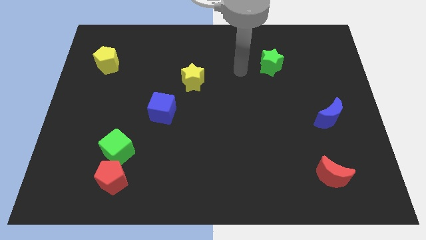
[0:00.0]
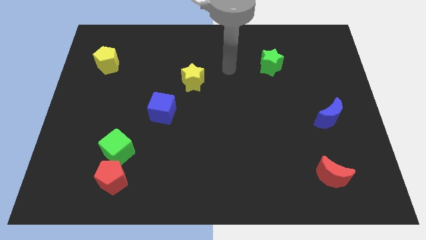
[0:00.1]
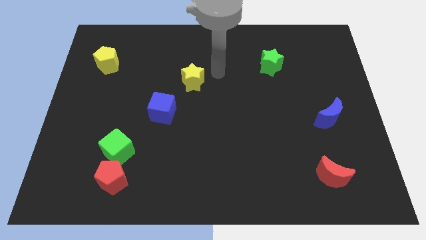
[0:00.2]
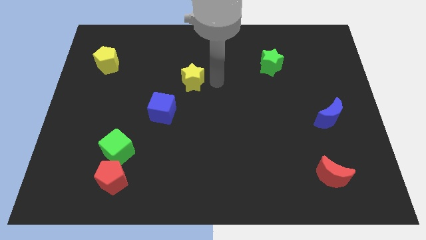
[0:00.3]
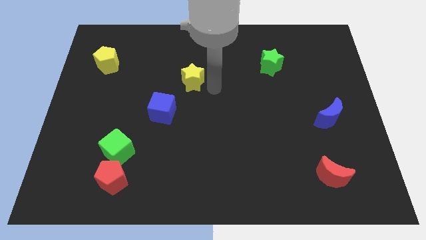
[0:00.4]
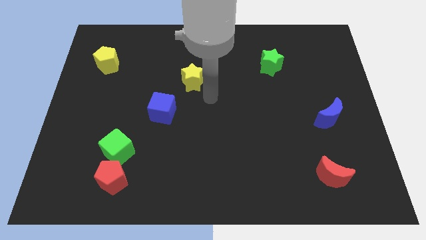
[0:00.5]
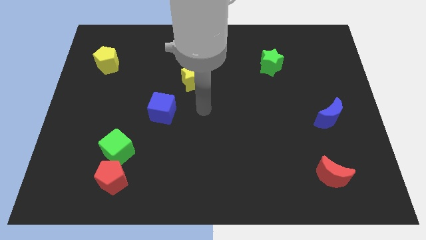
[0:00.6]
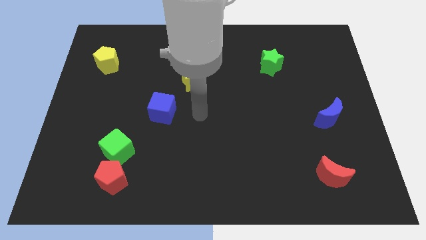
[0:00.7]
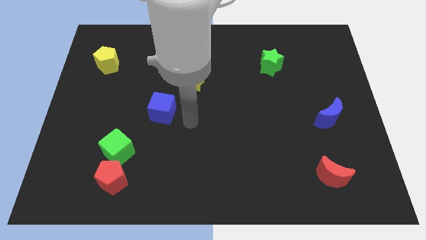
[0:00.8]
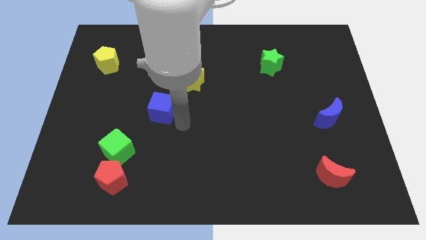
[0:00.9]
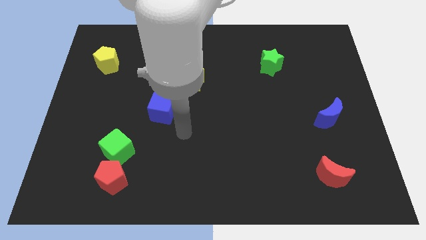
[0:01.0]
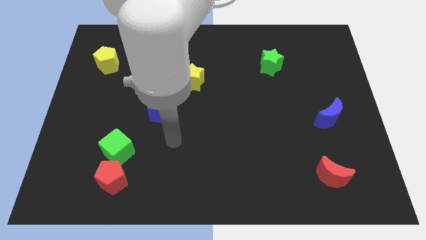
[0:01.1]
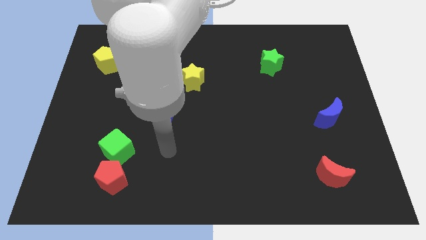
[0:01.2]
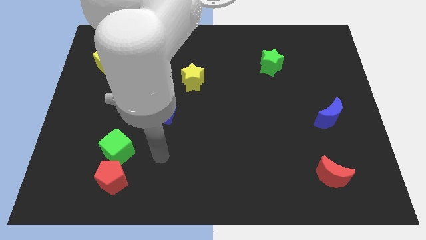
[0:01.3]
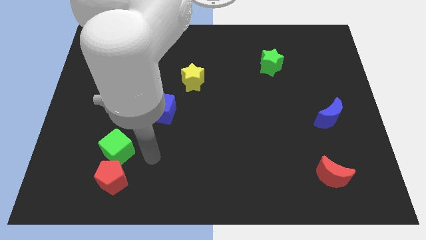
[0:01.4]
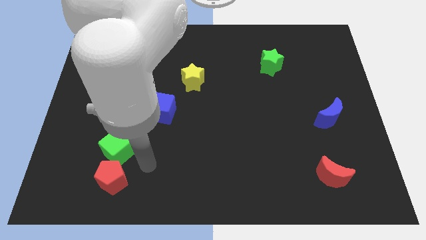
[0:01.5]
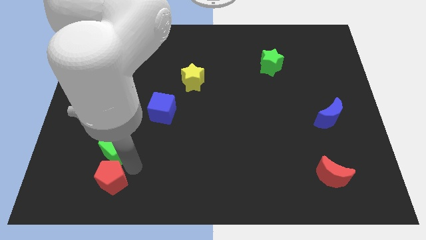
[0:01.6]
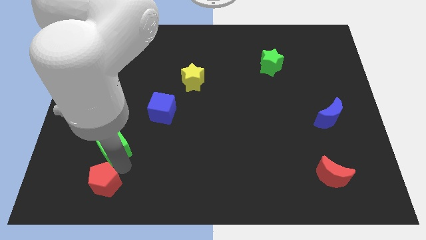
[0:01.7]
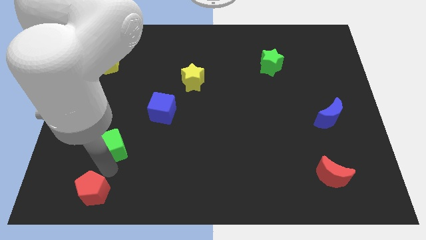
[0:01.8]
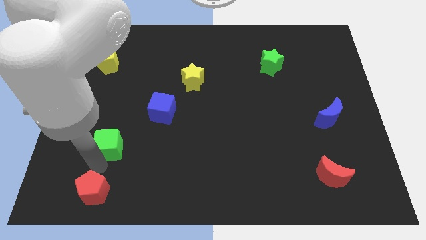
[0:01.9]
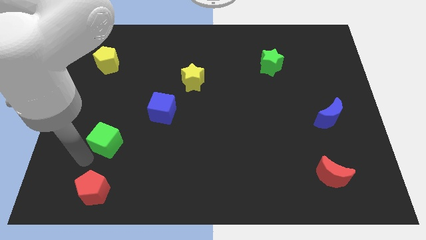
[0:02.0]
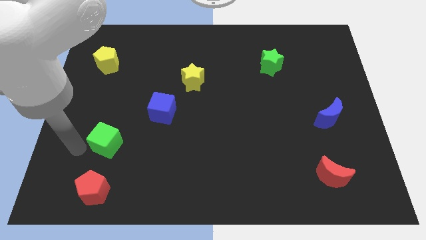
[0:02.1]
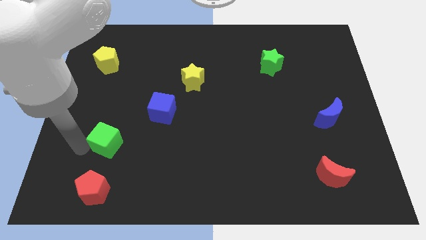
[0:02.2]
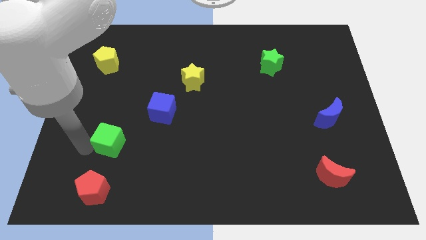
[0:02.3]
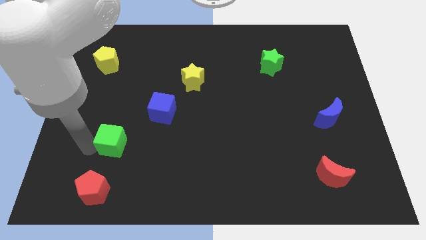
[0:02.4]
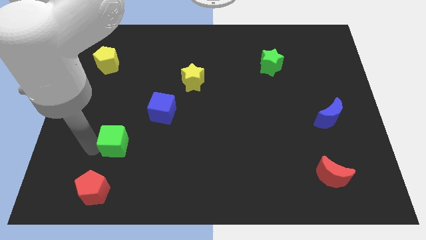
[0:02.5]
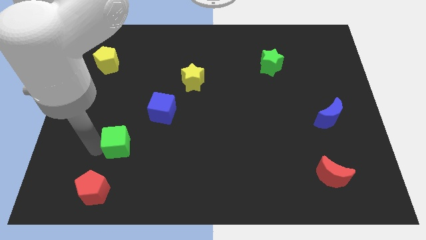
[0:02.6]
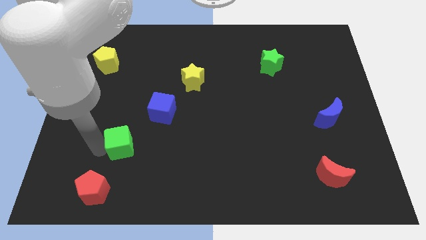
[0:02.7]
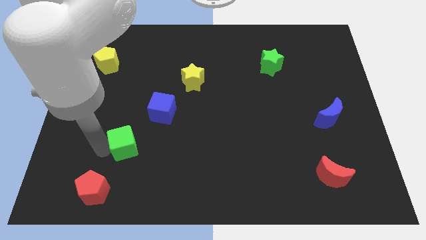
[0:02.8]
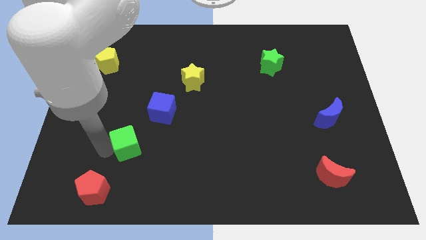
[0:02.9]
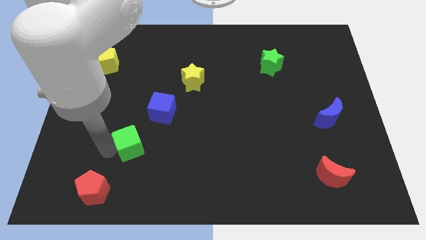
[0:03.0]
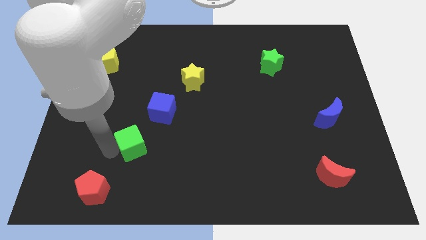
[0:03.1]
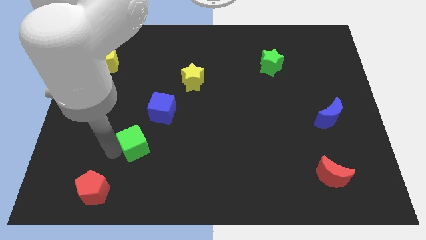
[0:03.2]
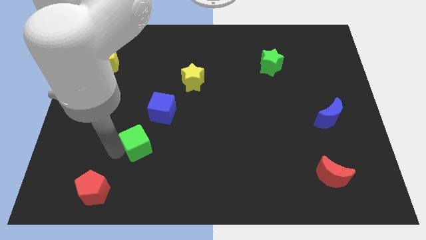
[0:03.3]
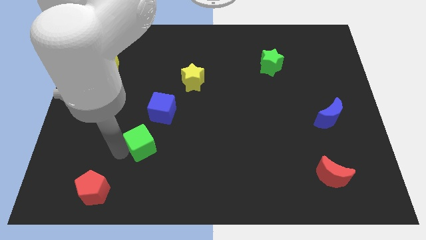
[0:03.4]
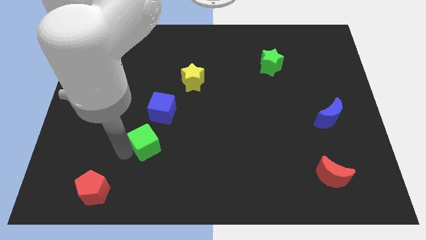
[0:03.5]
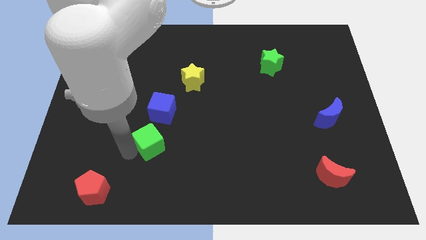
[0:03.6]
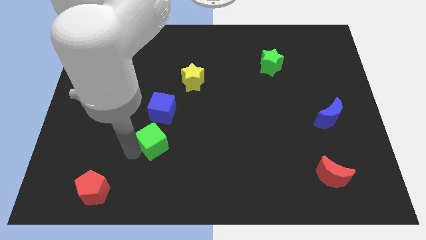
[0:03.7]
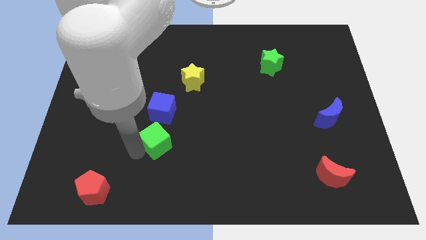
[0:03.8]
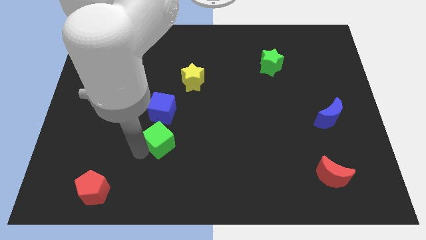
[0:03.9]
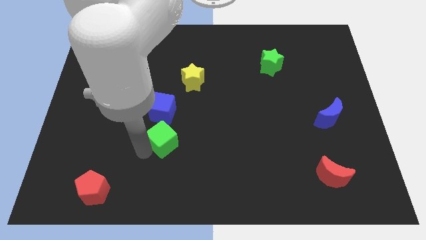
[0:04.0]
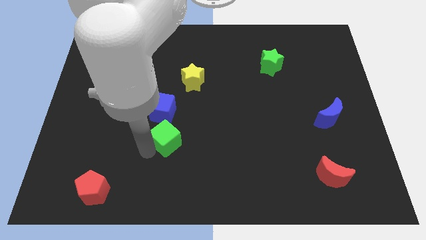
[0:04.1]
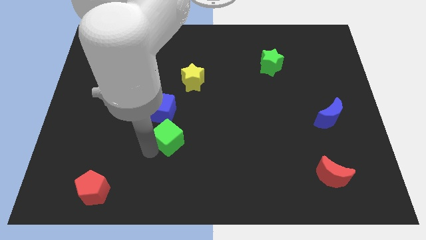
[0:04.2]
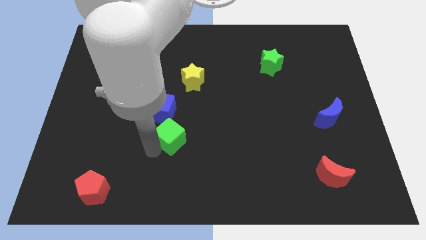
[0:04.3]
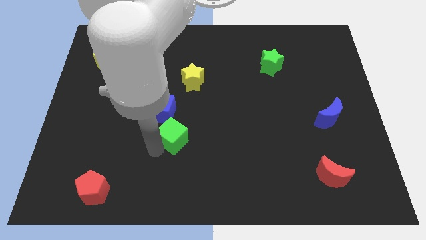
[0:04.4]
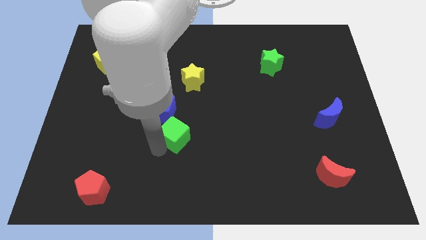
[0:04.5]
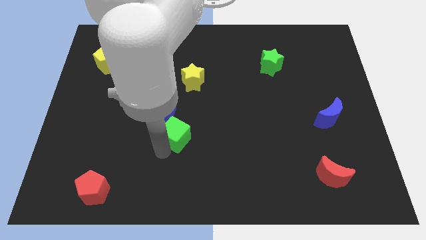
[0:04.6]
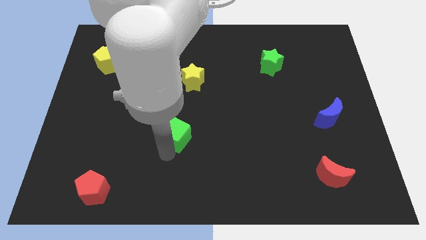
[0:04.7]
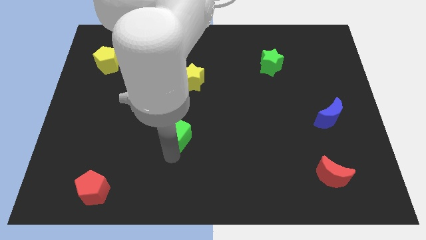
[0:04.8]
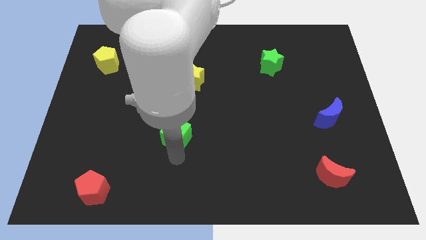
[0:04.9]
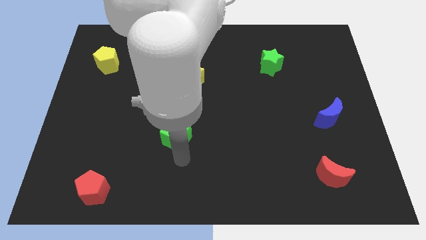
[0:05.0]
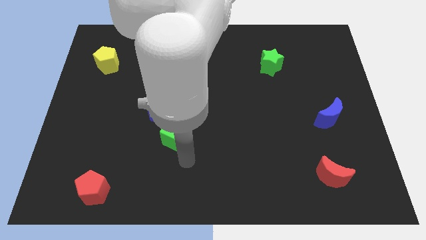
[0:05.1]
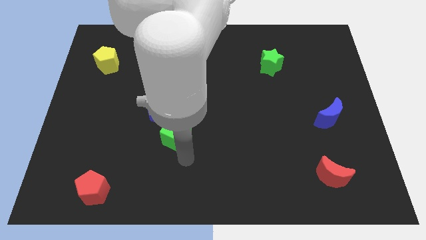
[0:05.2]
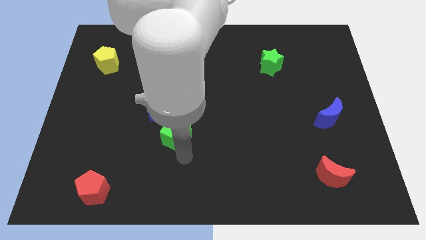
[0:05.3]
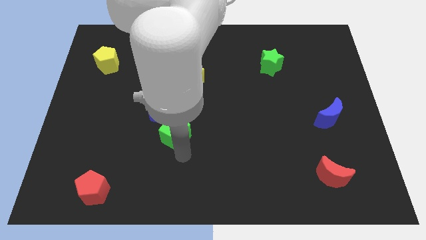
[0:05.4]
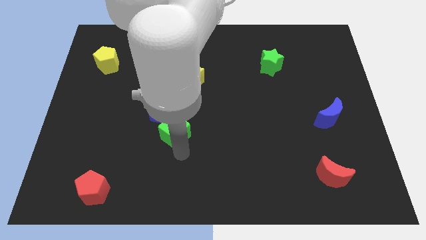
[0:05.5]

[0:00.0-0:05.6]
push the green cube to the middle
